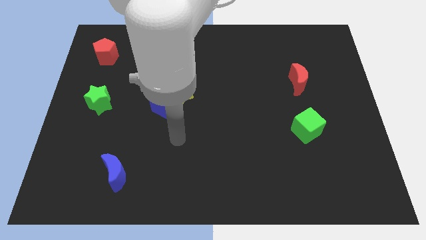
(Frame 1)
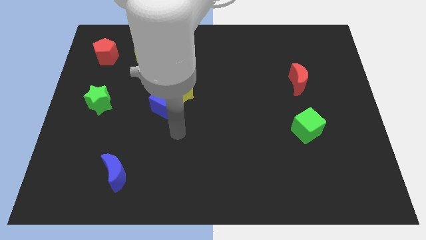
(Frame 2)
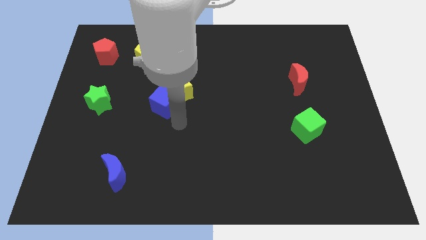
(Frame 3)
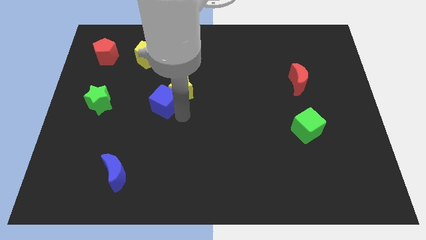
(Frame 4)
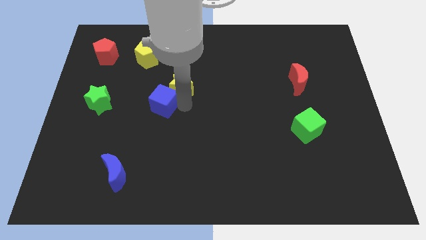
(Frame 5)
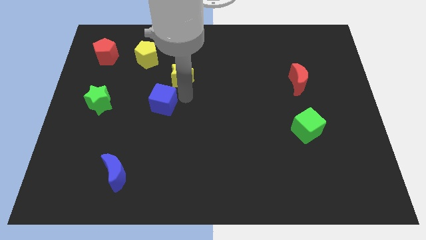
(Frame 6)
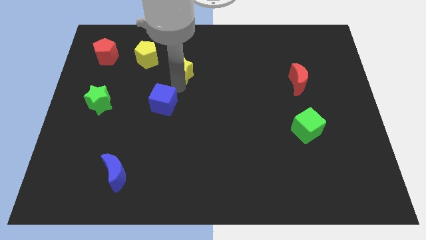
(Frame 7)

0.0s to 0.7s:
pull the blue cube apart from the yellow star

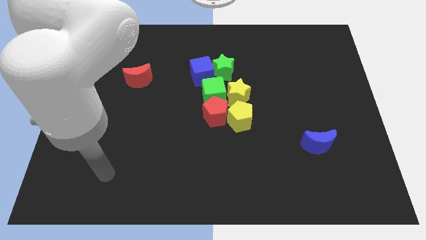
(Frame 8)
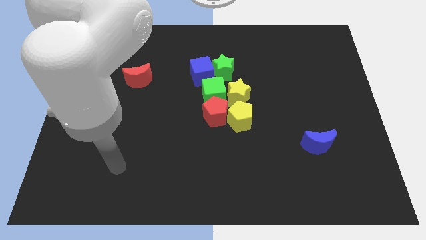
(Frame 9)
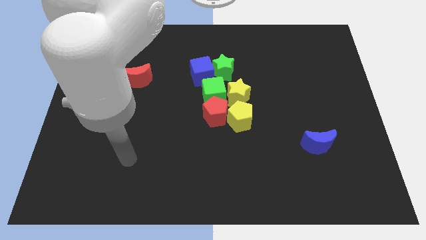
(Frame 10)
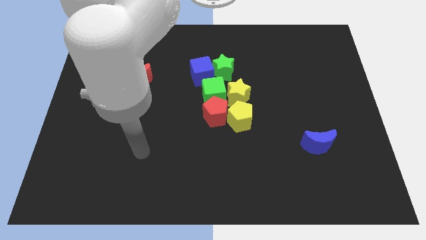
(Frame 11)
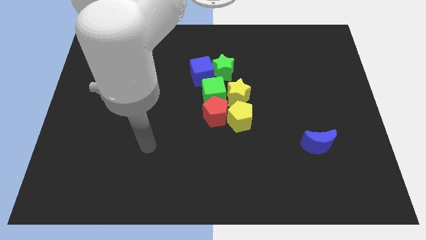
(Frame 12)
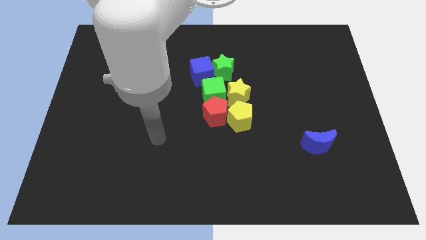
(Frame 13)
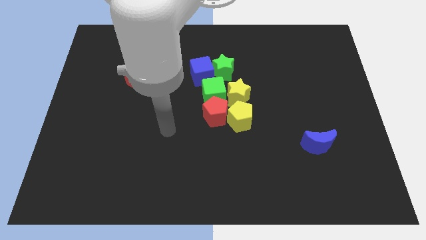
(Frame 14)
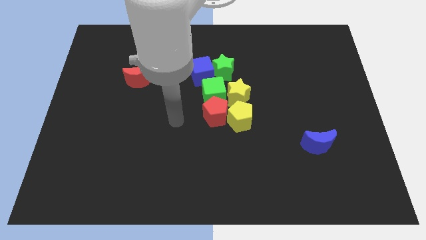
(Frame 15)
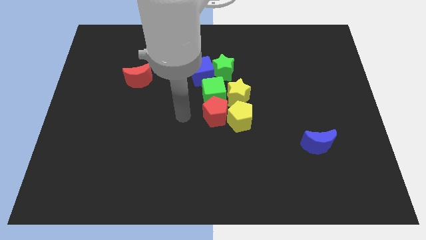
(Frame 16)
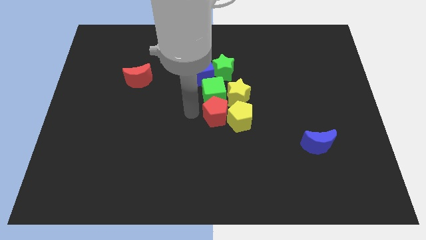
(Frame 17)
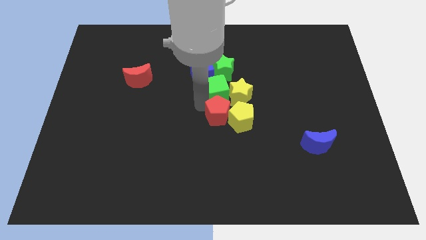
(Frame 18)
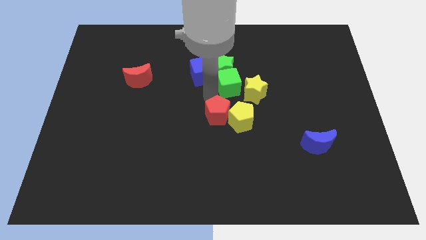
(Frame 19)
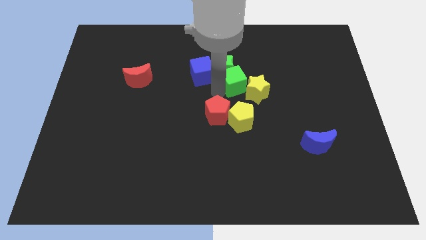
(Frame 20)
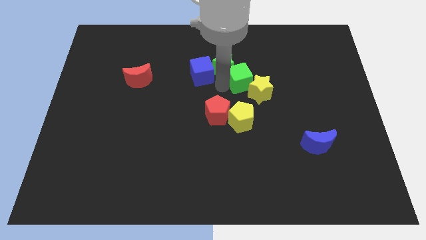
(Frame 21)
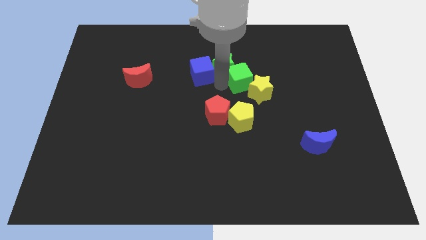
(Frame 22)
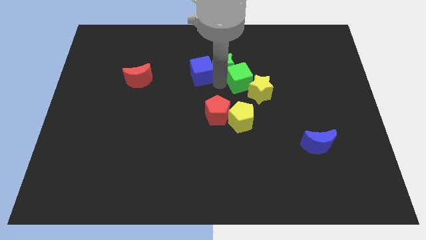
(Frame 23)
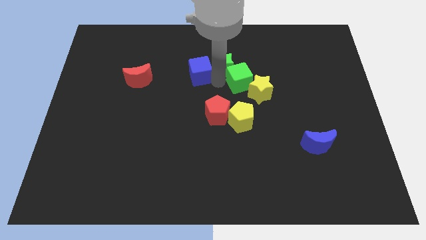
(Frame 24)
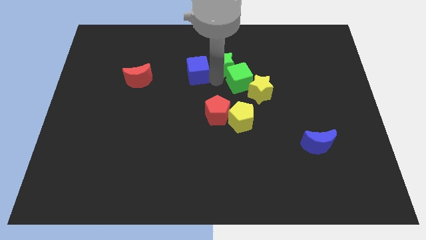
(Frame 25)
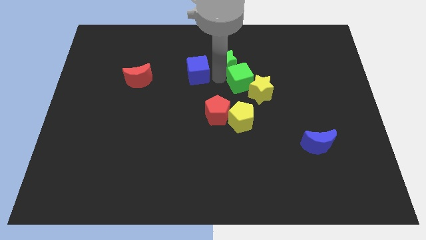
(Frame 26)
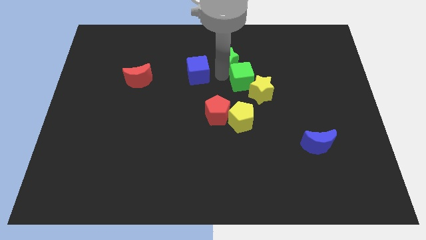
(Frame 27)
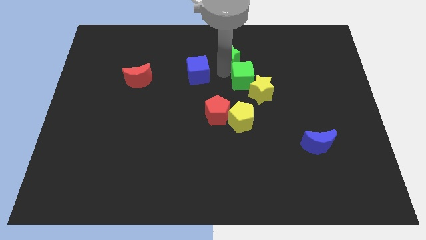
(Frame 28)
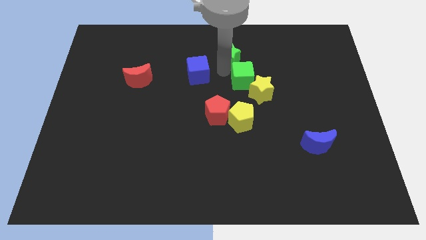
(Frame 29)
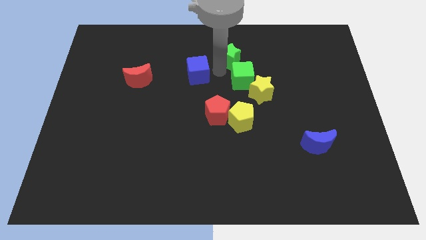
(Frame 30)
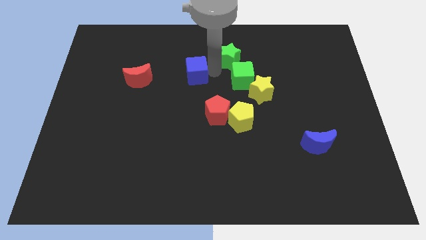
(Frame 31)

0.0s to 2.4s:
pull the blue cube apart from the green star and green cube

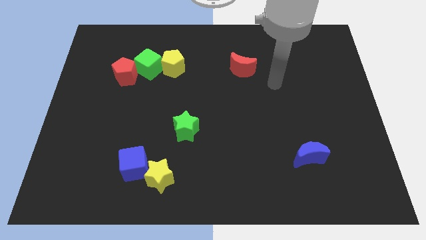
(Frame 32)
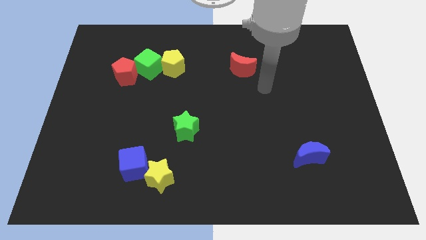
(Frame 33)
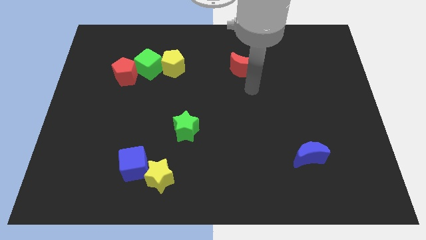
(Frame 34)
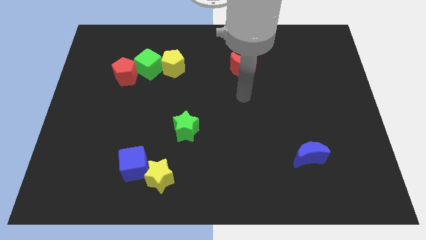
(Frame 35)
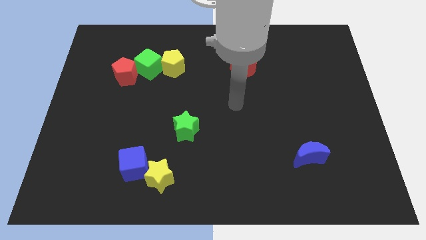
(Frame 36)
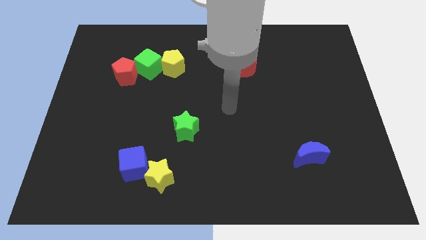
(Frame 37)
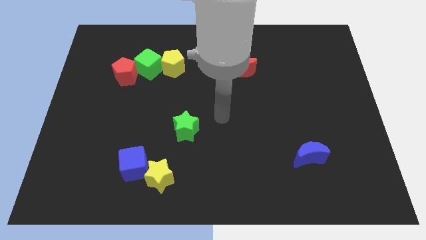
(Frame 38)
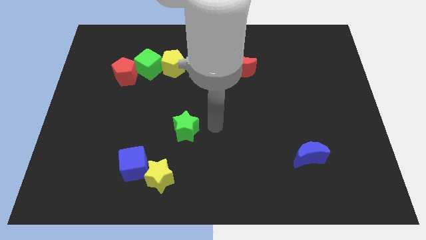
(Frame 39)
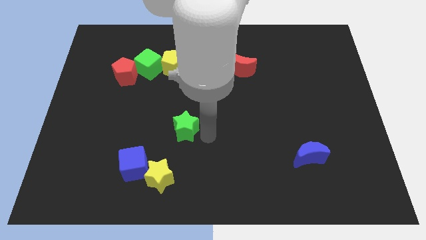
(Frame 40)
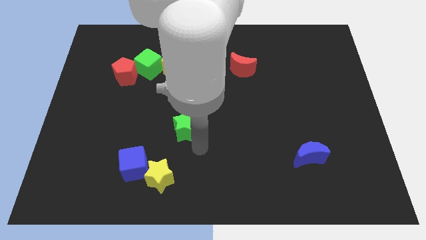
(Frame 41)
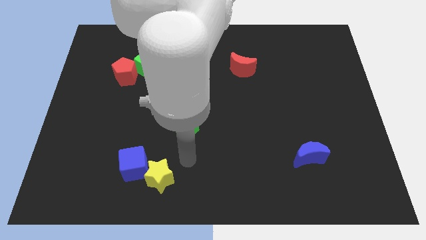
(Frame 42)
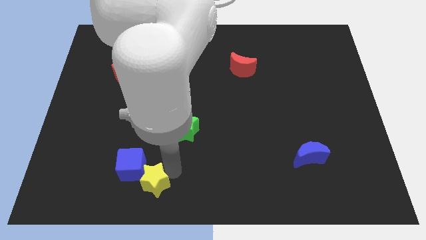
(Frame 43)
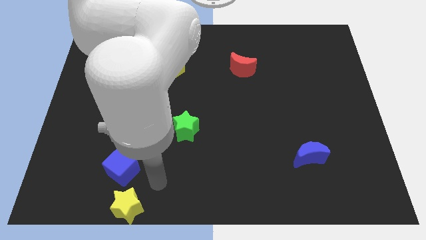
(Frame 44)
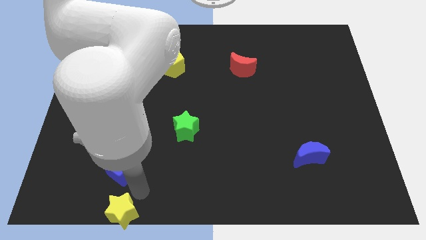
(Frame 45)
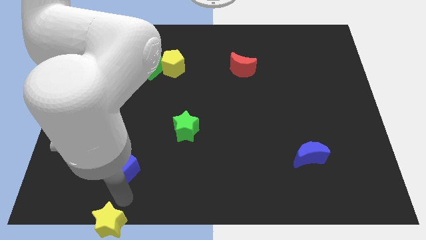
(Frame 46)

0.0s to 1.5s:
separate the blue cube from the yellow star

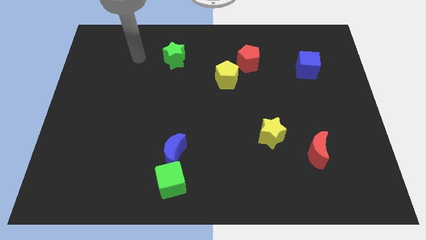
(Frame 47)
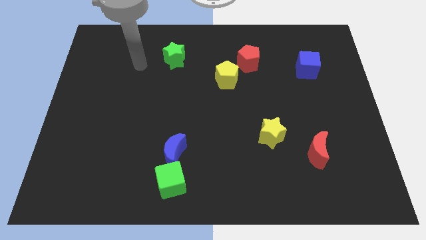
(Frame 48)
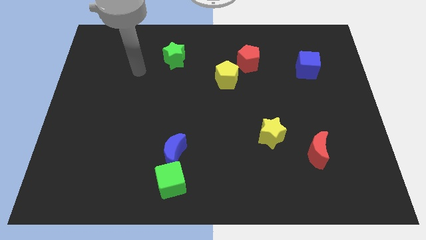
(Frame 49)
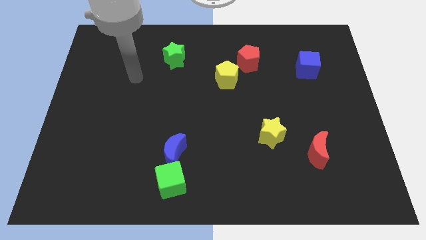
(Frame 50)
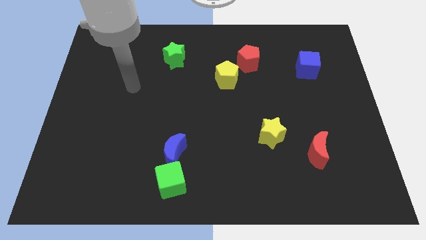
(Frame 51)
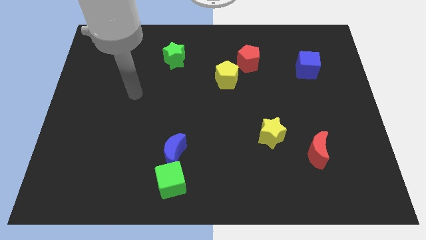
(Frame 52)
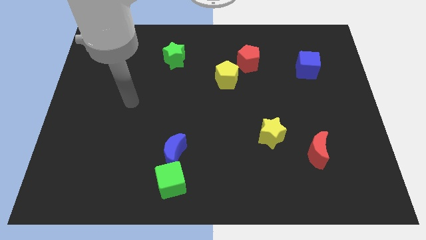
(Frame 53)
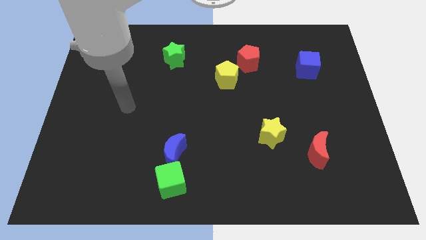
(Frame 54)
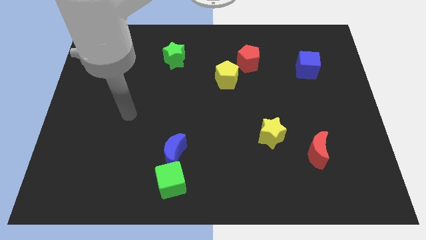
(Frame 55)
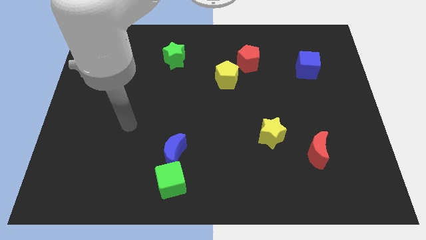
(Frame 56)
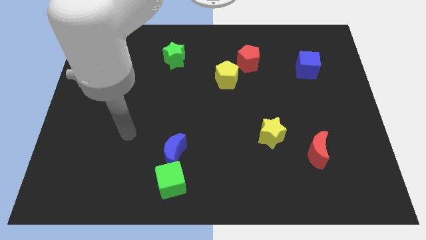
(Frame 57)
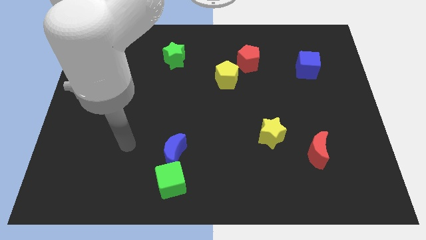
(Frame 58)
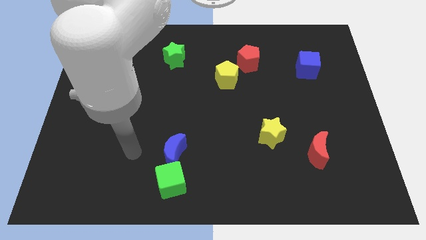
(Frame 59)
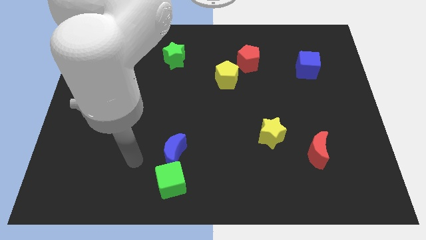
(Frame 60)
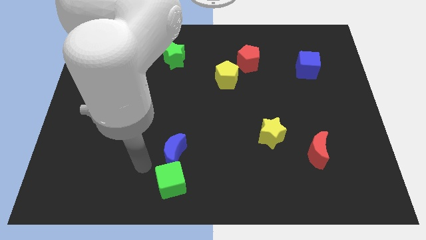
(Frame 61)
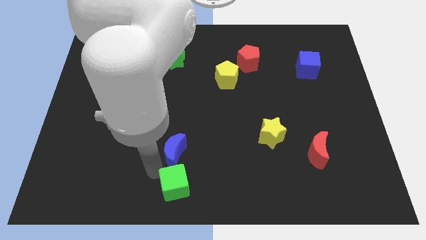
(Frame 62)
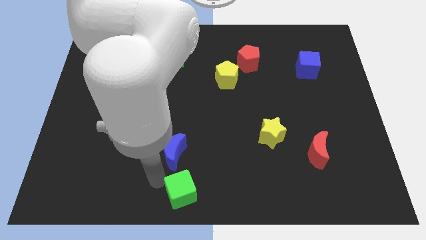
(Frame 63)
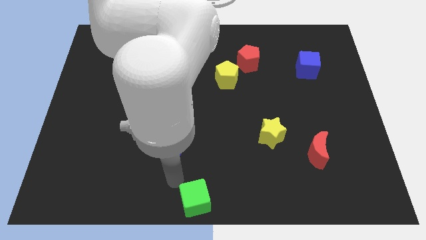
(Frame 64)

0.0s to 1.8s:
pull the blue moon apart from the green cube

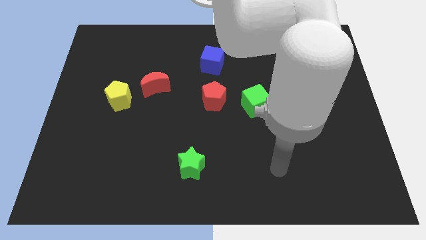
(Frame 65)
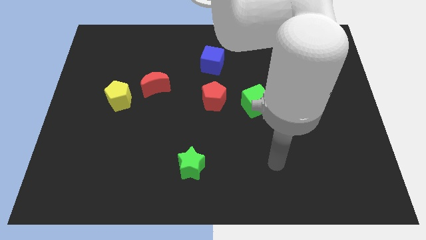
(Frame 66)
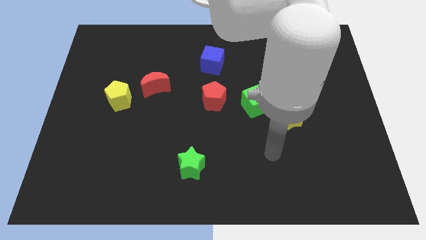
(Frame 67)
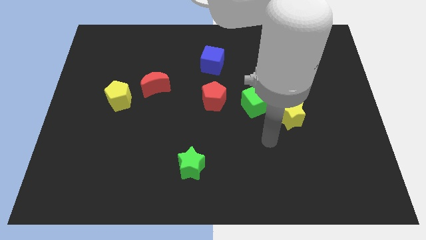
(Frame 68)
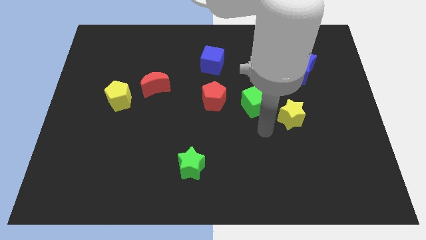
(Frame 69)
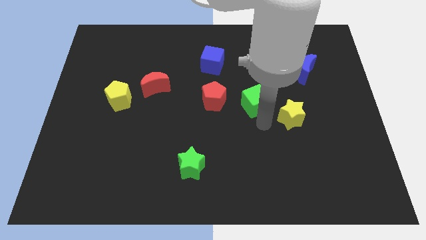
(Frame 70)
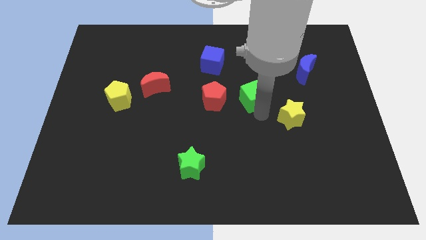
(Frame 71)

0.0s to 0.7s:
pull the yellow star apart from the green cube

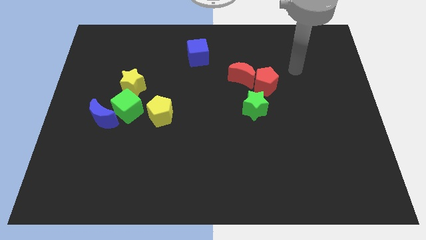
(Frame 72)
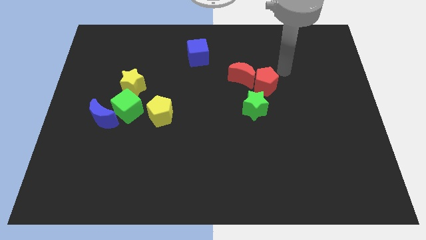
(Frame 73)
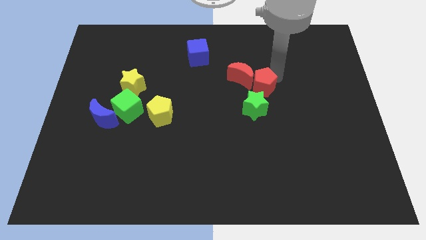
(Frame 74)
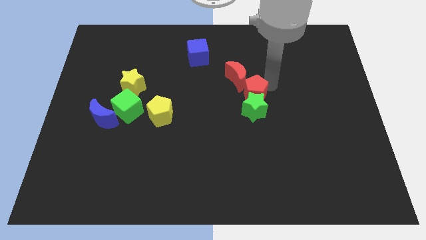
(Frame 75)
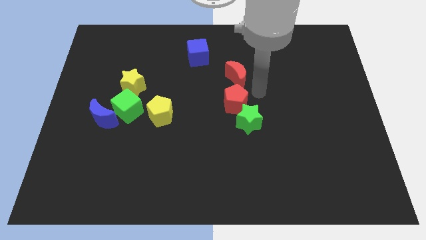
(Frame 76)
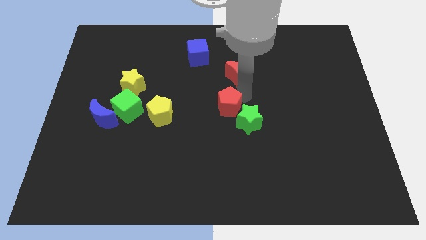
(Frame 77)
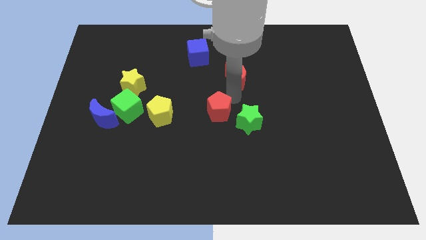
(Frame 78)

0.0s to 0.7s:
separate the red moon from the red pentagon

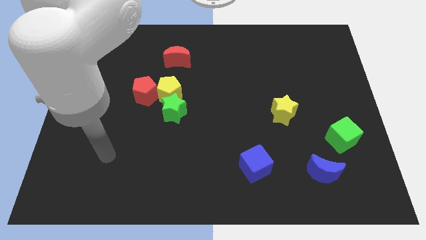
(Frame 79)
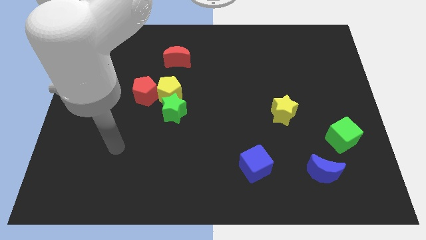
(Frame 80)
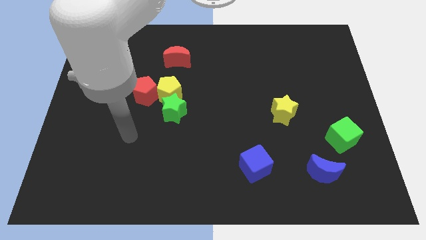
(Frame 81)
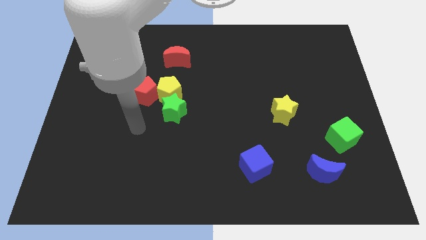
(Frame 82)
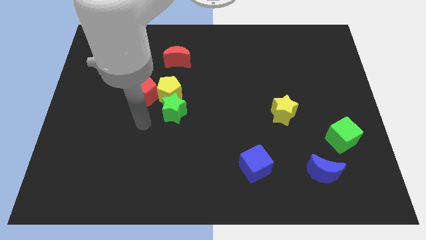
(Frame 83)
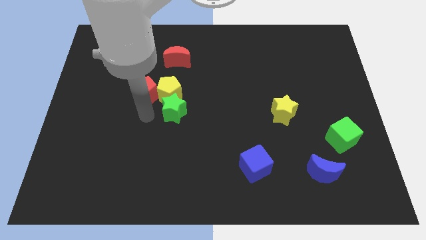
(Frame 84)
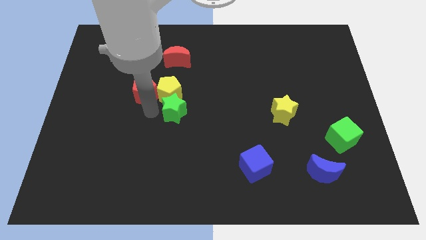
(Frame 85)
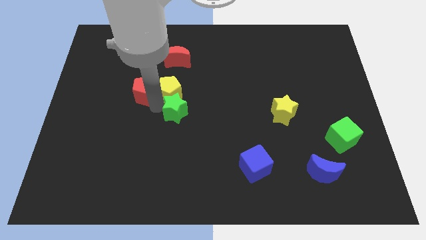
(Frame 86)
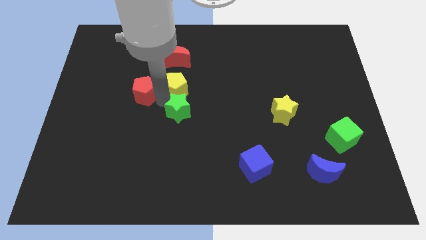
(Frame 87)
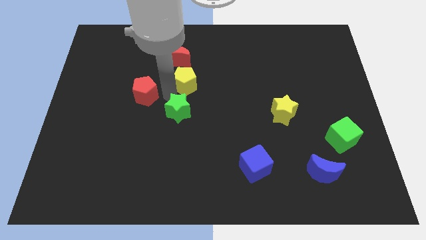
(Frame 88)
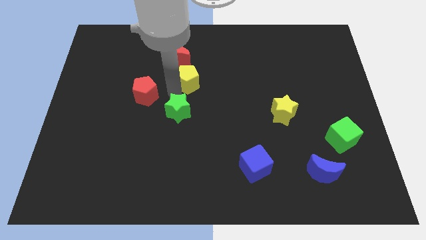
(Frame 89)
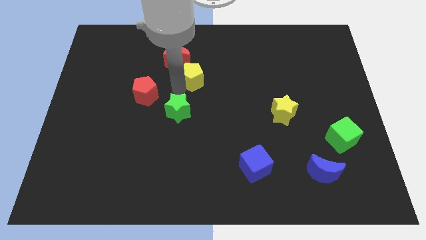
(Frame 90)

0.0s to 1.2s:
move the yellow pentagon away from the green star and red pentagon

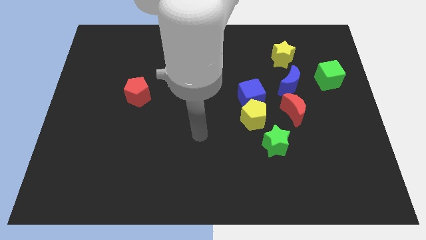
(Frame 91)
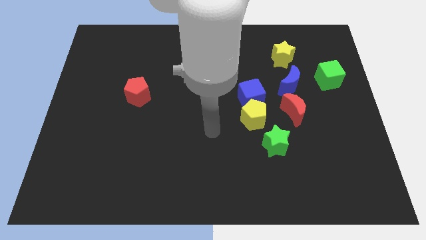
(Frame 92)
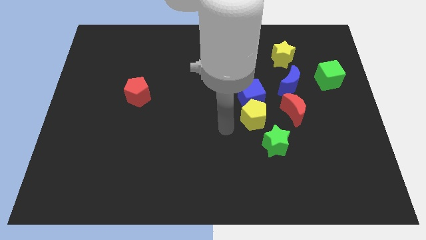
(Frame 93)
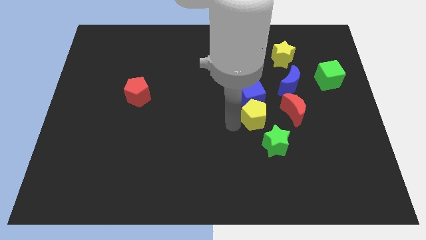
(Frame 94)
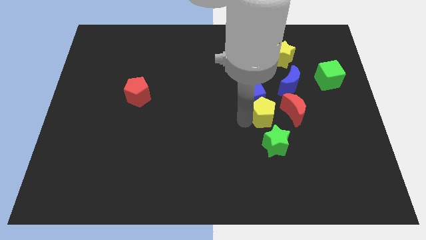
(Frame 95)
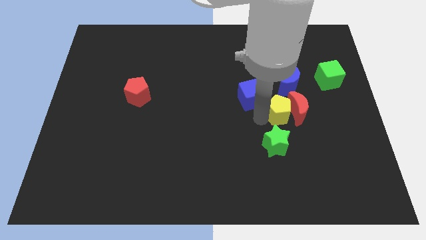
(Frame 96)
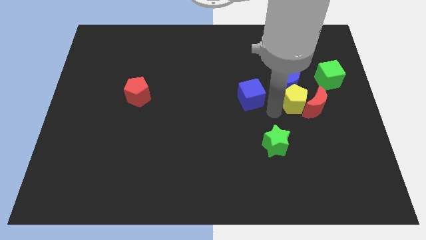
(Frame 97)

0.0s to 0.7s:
move the blue cube away from the yellow pentagon
